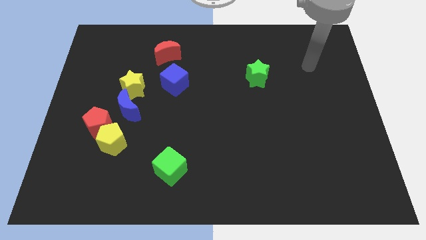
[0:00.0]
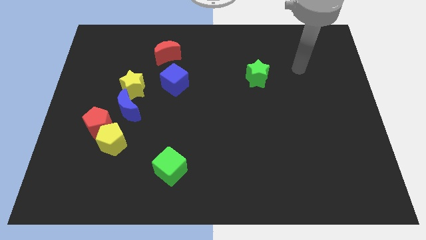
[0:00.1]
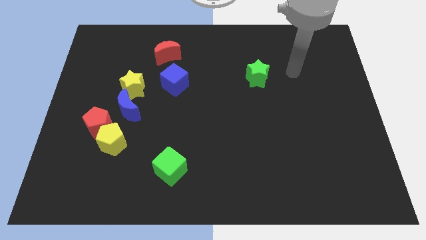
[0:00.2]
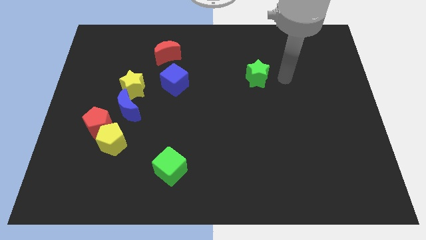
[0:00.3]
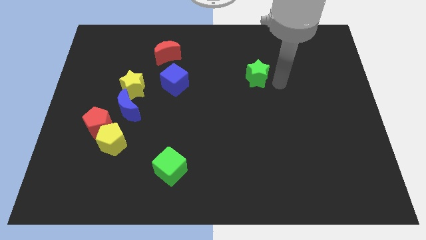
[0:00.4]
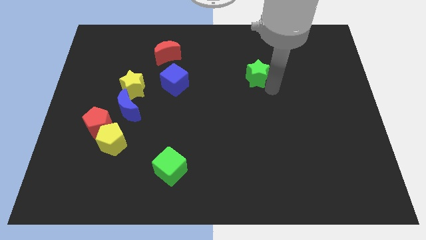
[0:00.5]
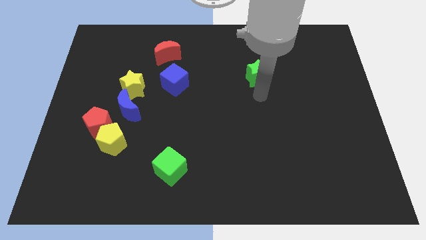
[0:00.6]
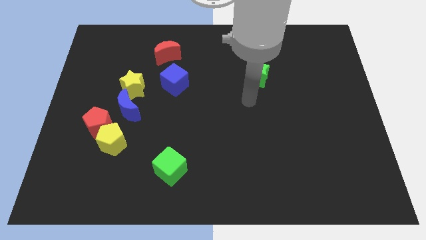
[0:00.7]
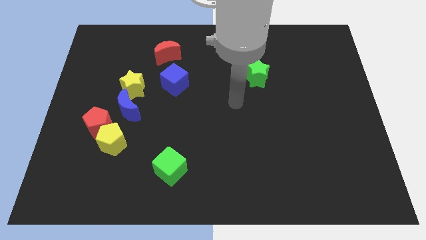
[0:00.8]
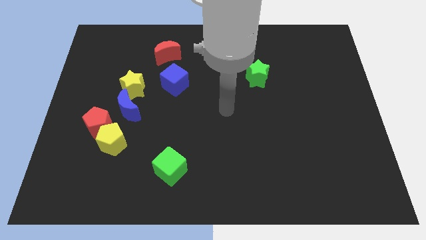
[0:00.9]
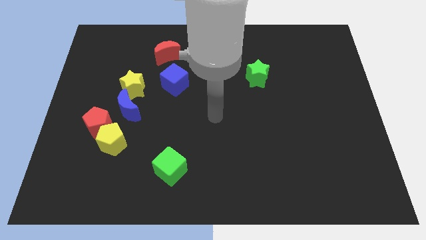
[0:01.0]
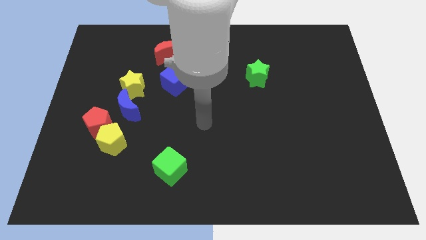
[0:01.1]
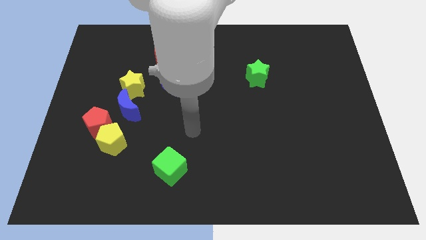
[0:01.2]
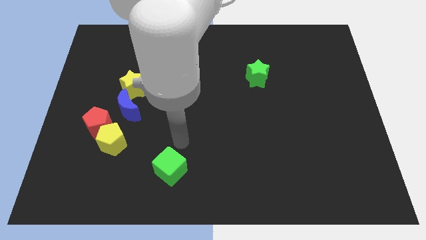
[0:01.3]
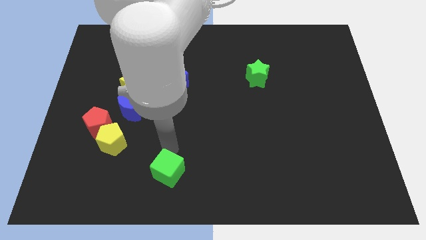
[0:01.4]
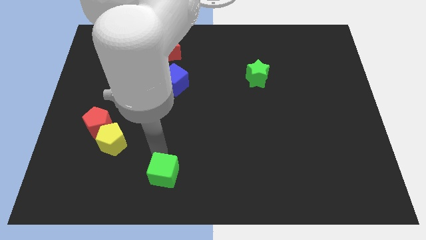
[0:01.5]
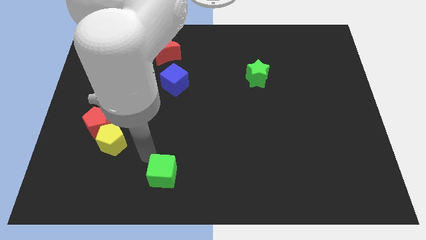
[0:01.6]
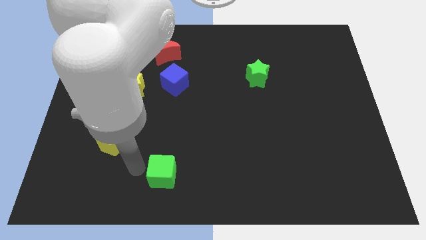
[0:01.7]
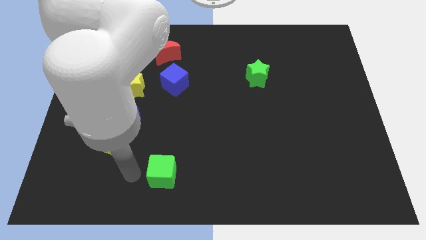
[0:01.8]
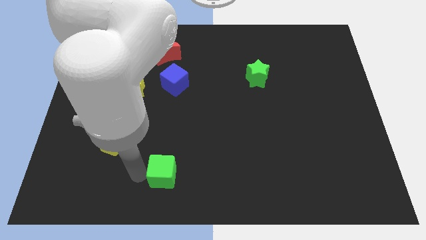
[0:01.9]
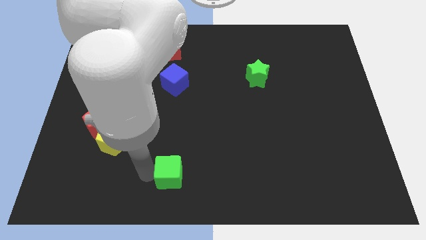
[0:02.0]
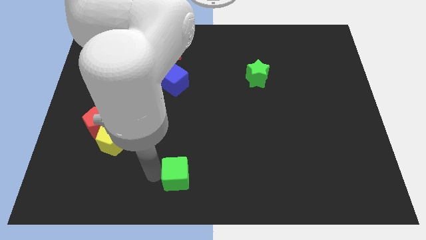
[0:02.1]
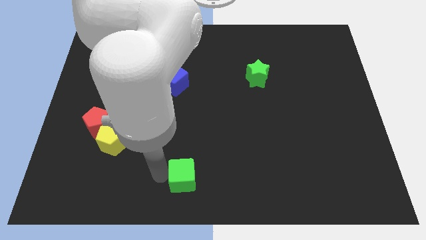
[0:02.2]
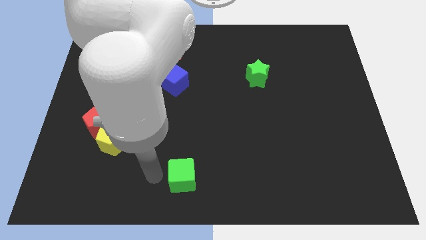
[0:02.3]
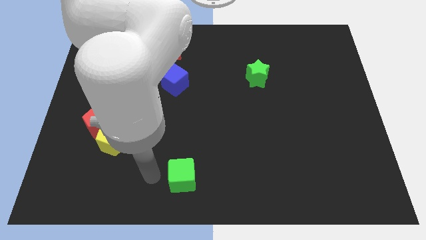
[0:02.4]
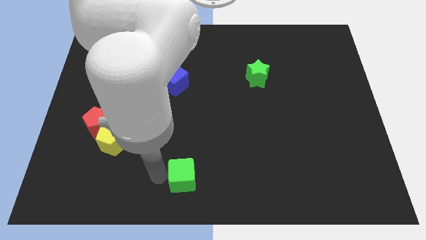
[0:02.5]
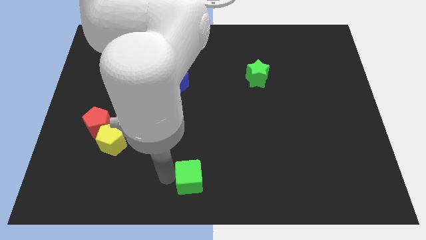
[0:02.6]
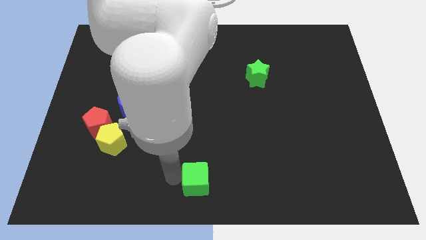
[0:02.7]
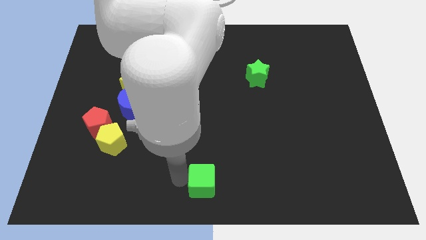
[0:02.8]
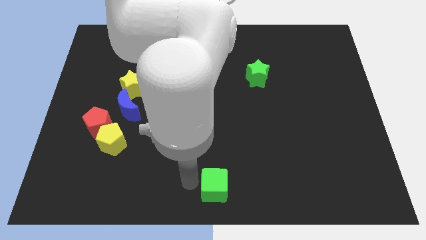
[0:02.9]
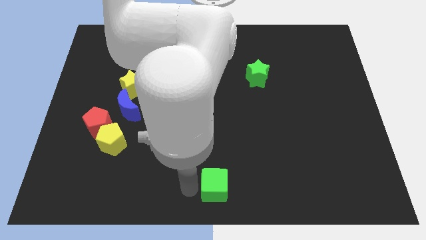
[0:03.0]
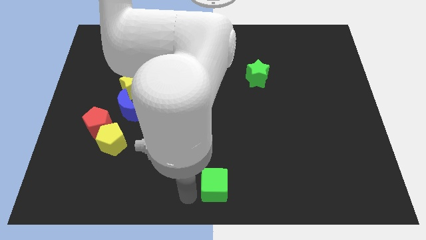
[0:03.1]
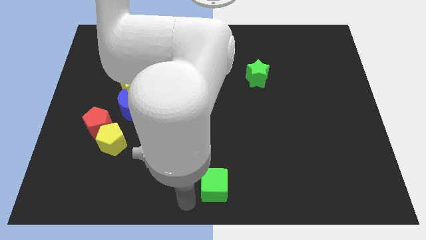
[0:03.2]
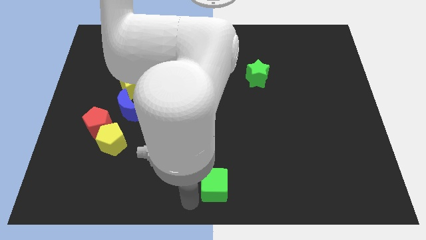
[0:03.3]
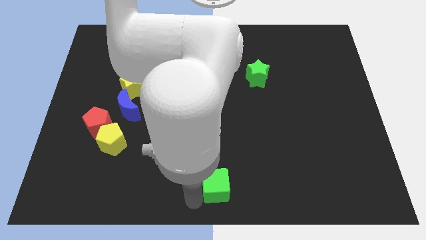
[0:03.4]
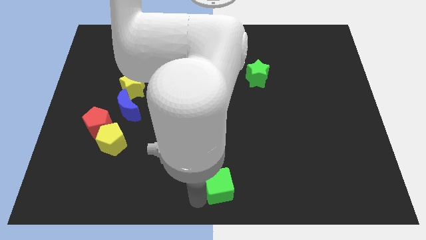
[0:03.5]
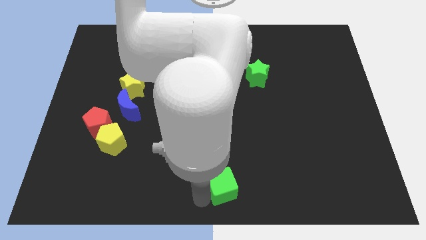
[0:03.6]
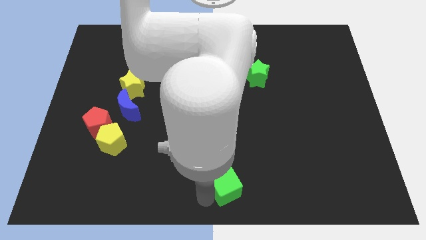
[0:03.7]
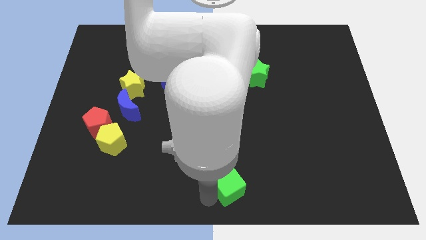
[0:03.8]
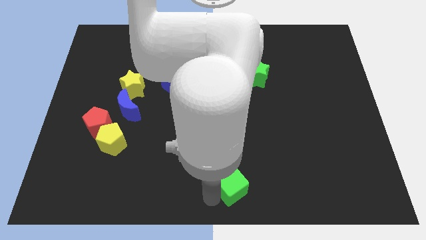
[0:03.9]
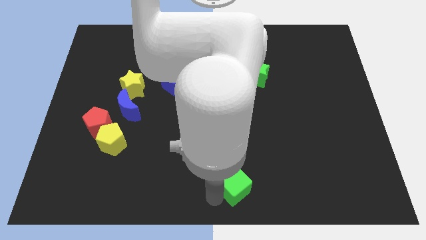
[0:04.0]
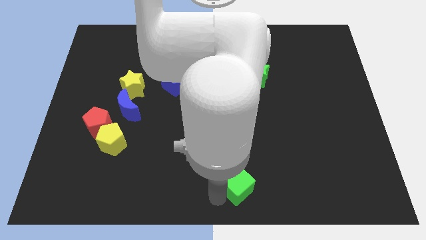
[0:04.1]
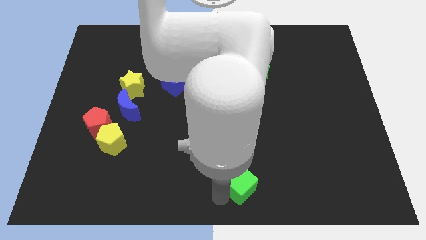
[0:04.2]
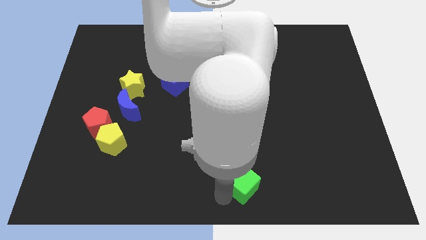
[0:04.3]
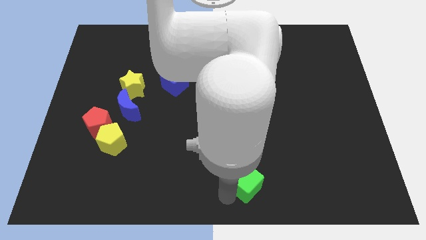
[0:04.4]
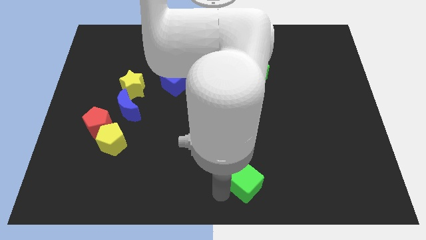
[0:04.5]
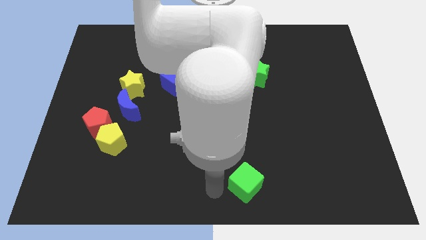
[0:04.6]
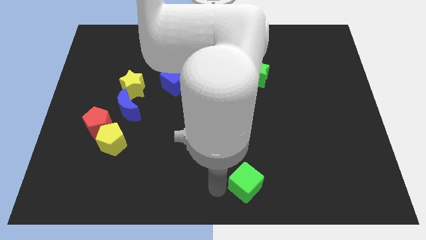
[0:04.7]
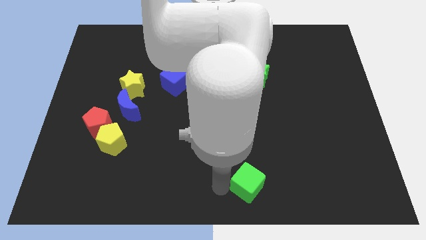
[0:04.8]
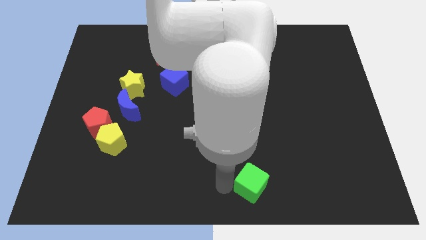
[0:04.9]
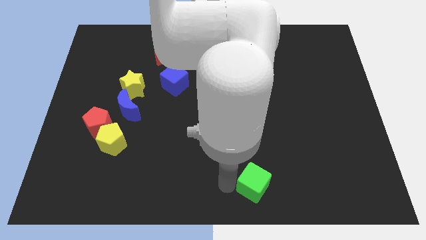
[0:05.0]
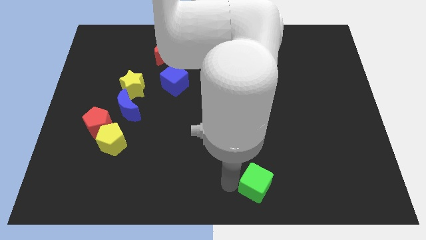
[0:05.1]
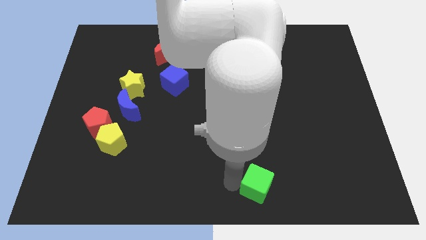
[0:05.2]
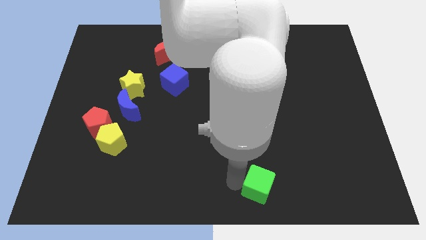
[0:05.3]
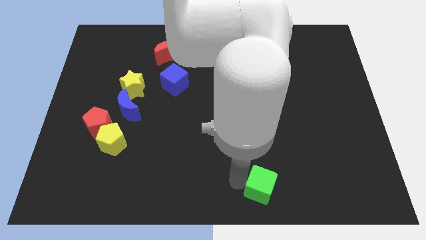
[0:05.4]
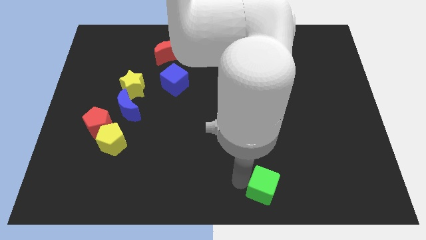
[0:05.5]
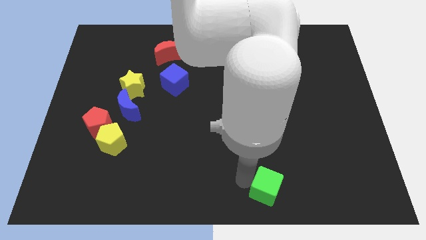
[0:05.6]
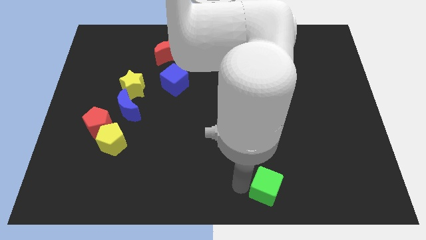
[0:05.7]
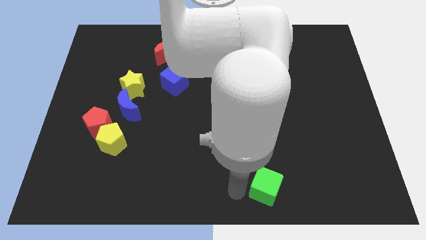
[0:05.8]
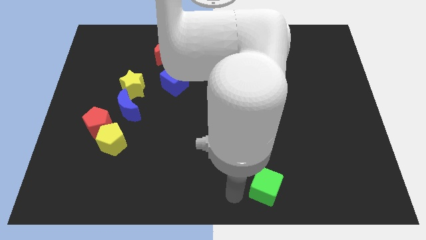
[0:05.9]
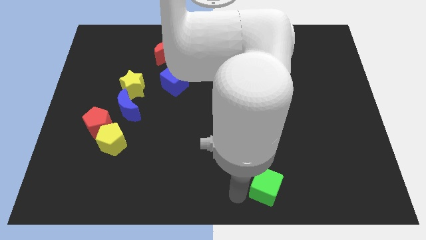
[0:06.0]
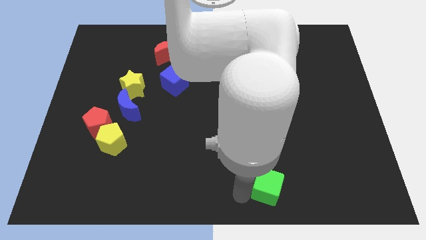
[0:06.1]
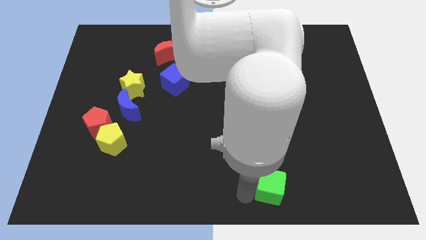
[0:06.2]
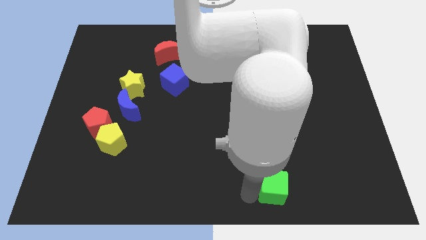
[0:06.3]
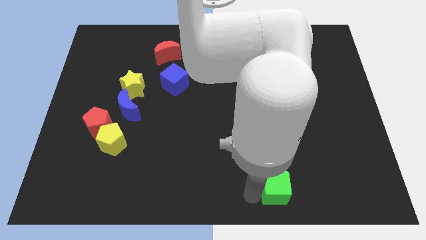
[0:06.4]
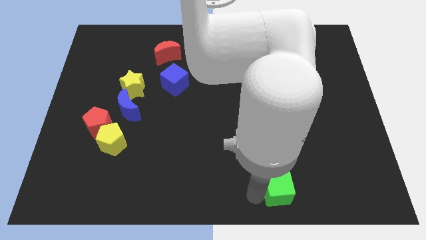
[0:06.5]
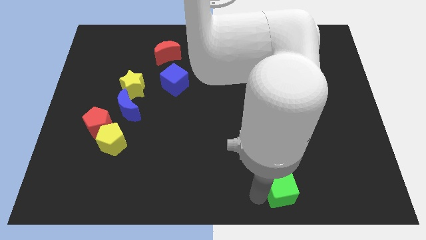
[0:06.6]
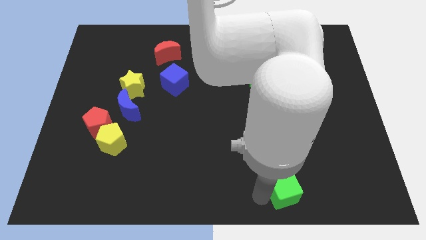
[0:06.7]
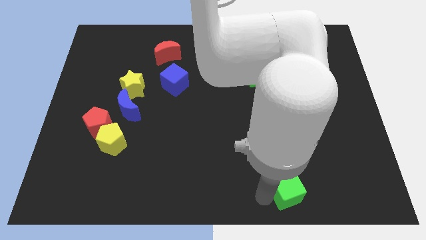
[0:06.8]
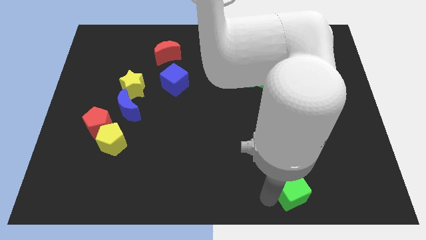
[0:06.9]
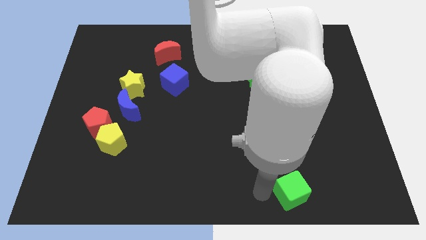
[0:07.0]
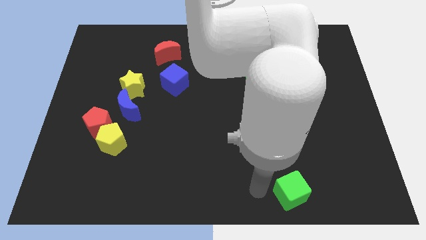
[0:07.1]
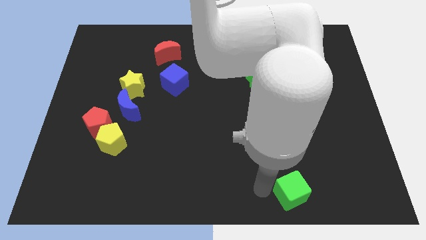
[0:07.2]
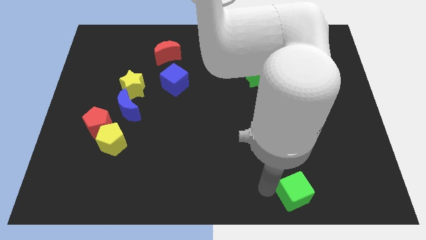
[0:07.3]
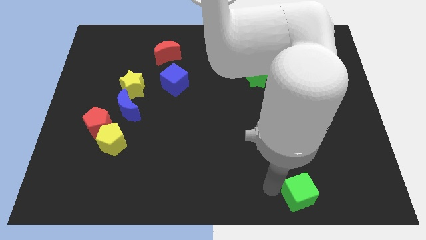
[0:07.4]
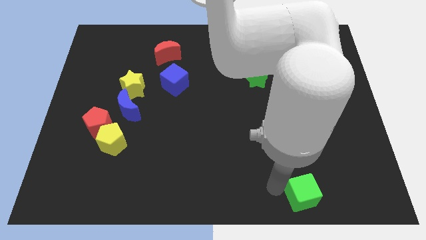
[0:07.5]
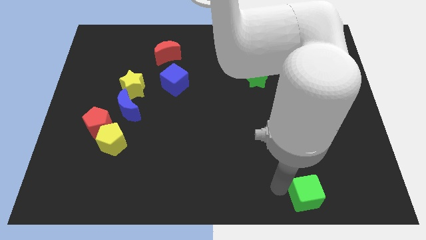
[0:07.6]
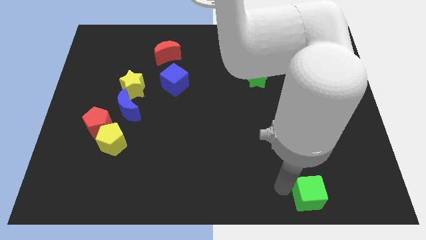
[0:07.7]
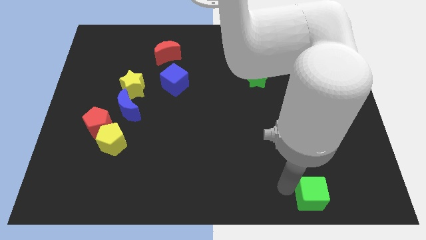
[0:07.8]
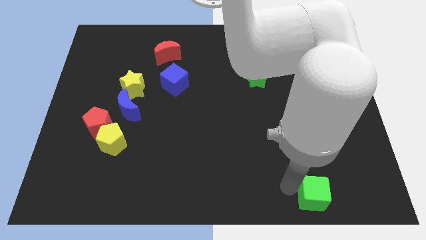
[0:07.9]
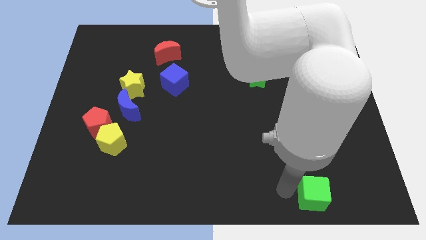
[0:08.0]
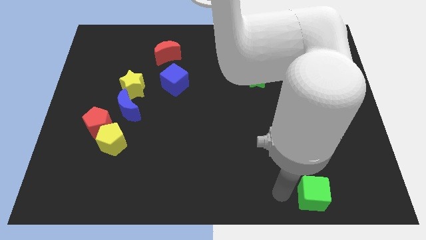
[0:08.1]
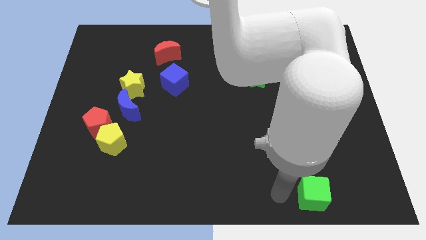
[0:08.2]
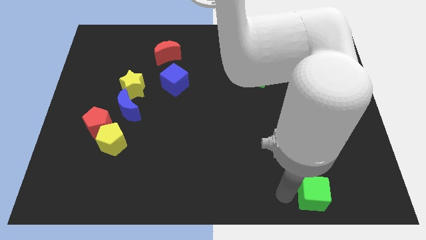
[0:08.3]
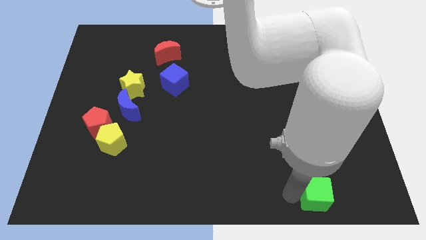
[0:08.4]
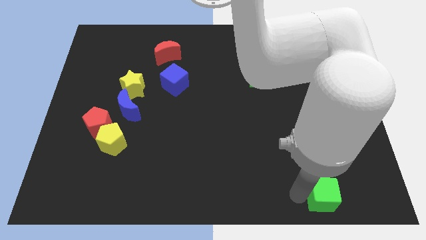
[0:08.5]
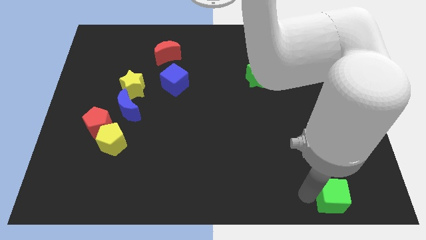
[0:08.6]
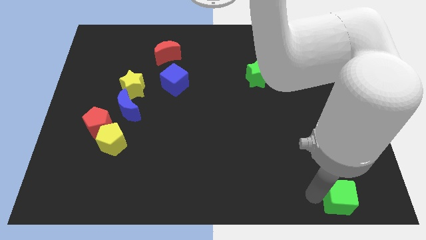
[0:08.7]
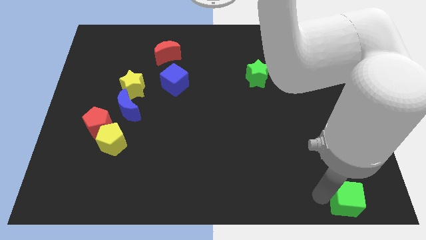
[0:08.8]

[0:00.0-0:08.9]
push the green cube to the bottom right of the board
